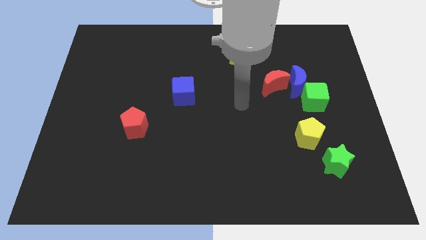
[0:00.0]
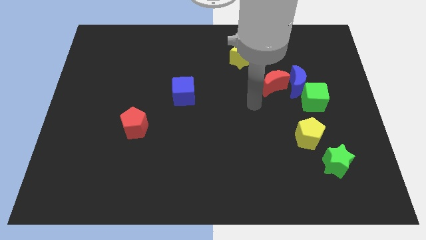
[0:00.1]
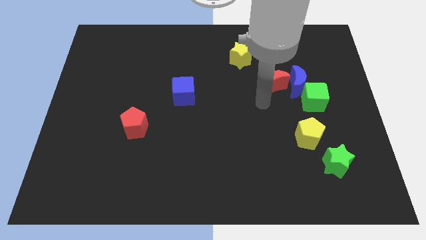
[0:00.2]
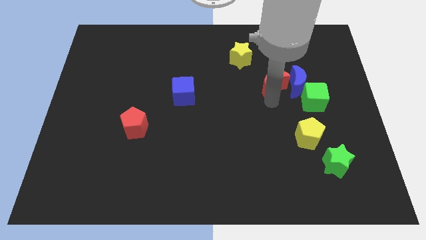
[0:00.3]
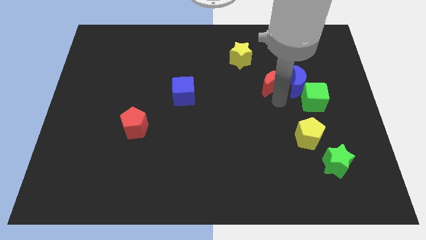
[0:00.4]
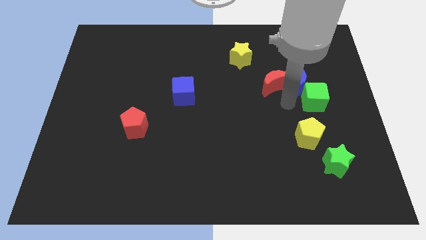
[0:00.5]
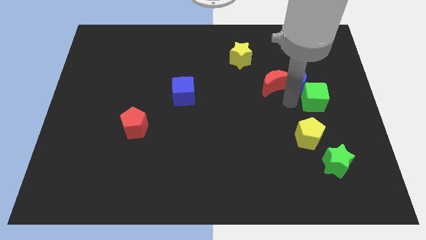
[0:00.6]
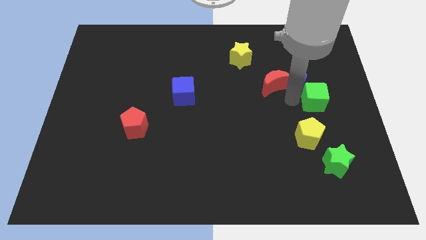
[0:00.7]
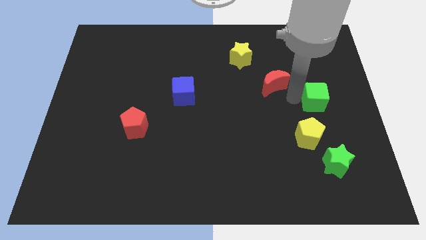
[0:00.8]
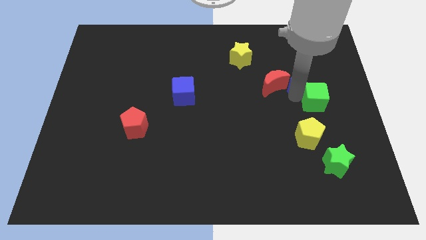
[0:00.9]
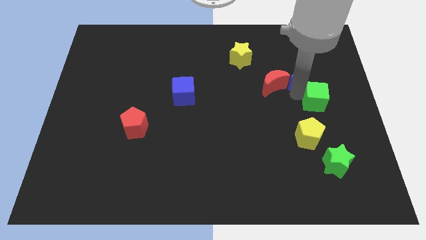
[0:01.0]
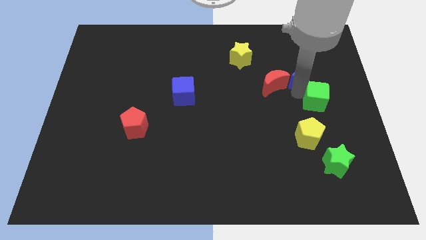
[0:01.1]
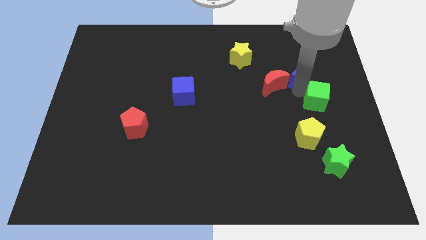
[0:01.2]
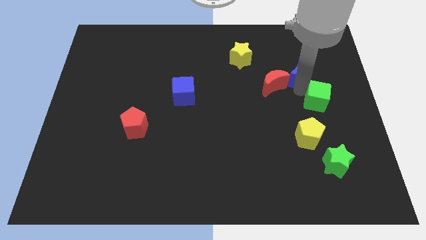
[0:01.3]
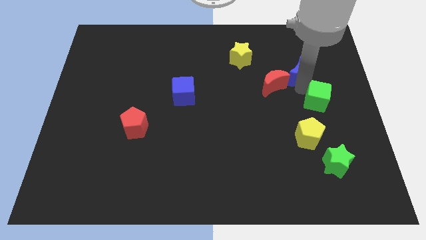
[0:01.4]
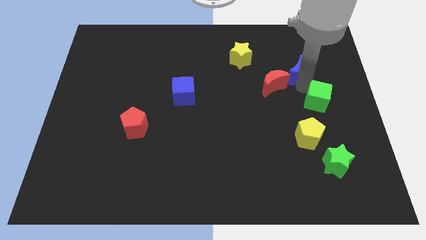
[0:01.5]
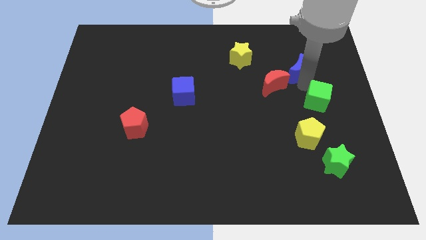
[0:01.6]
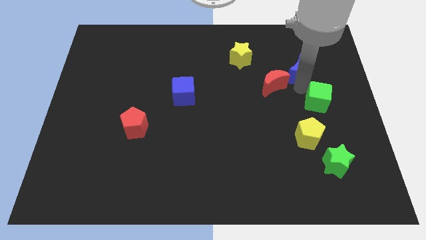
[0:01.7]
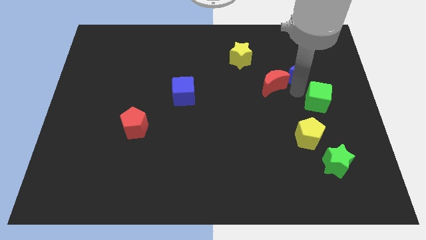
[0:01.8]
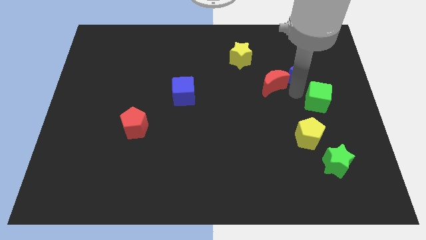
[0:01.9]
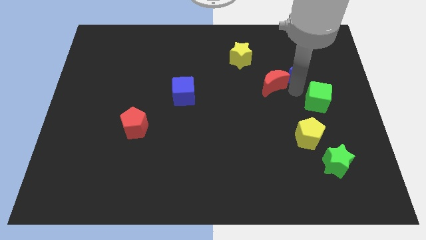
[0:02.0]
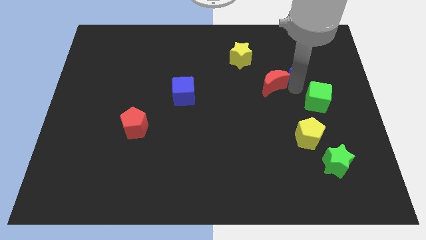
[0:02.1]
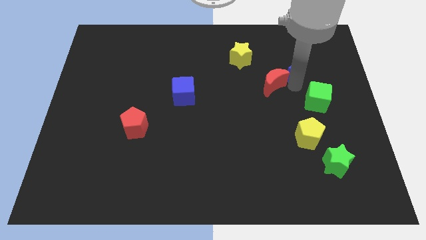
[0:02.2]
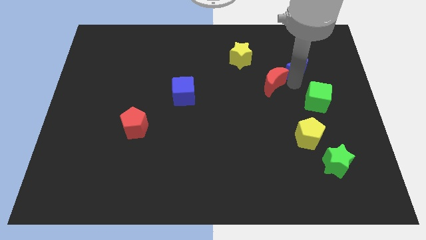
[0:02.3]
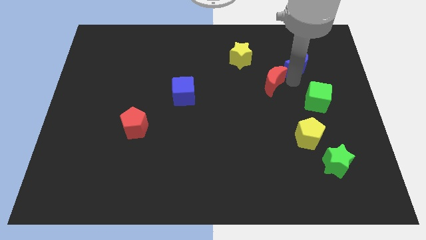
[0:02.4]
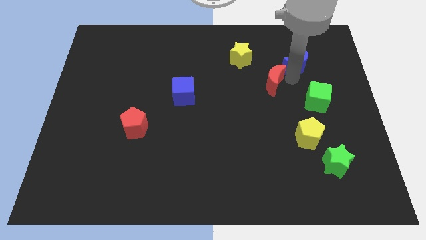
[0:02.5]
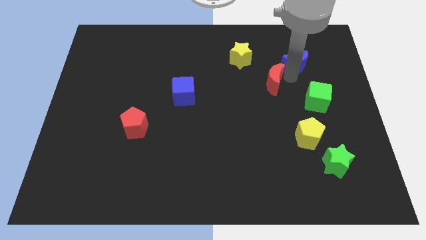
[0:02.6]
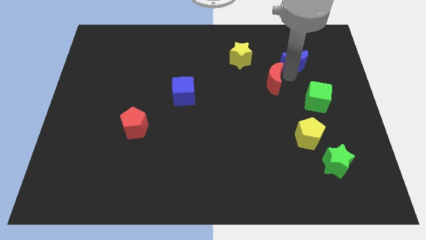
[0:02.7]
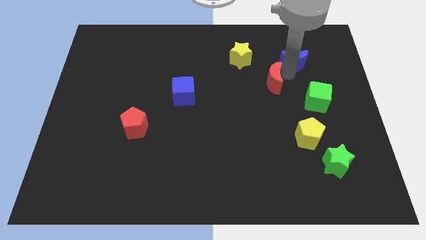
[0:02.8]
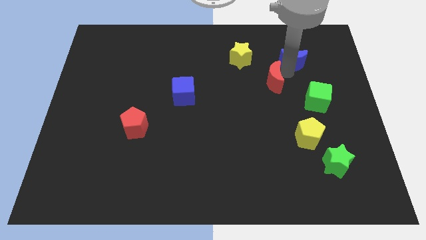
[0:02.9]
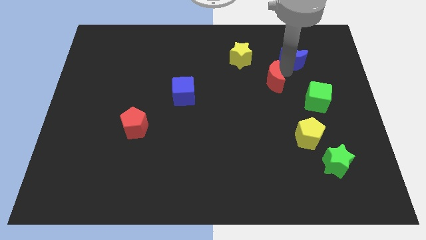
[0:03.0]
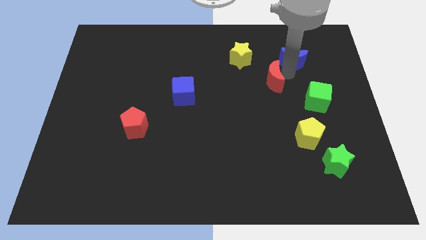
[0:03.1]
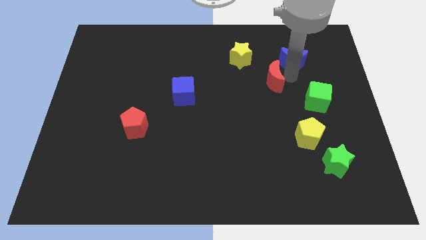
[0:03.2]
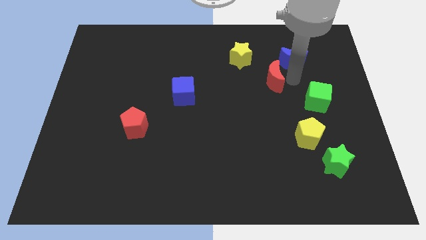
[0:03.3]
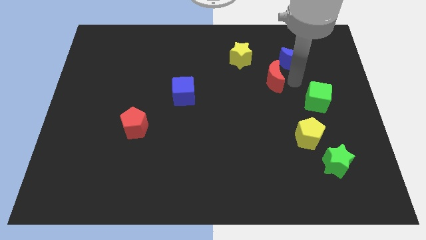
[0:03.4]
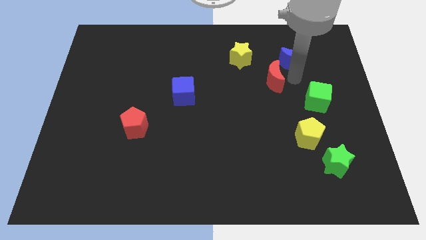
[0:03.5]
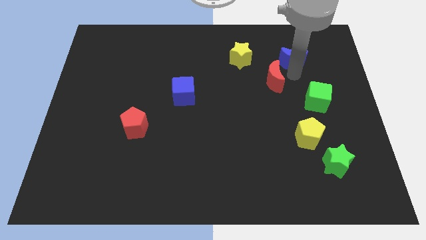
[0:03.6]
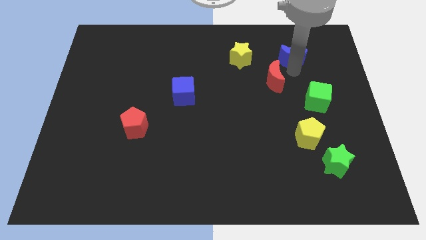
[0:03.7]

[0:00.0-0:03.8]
separate the blue moon from the green cube and red moon

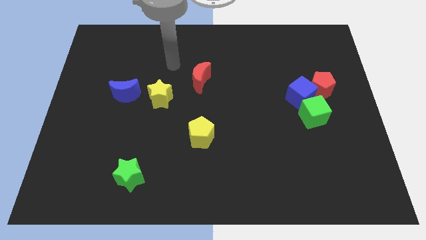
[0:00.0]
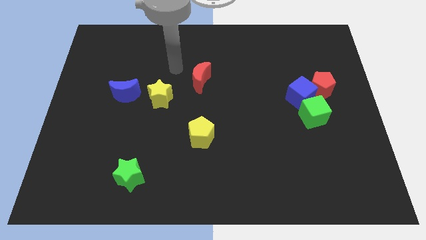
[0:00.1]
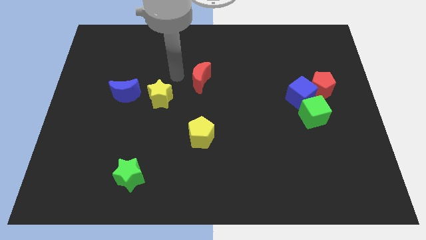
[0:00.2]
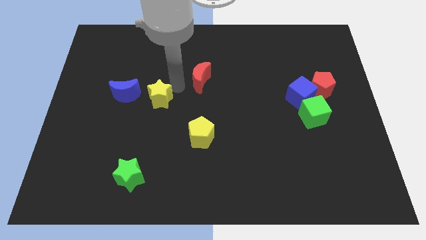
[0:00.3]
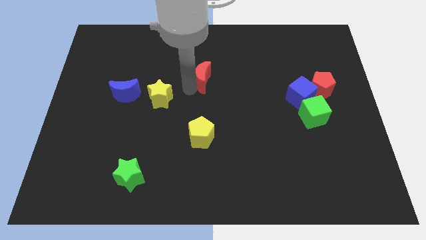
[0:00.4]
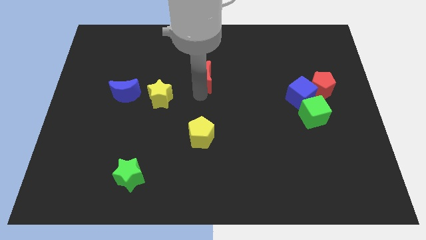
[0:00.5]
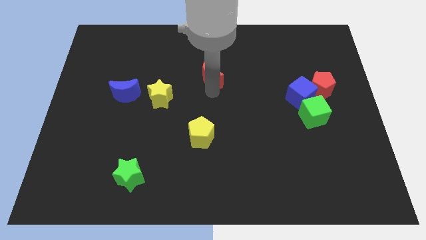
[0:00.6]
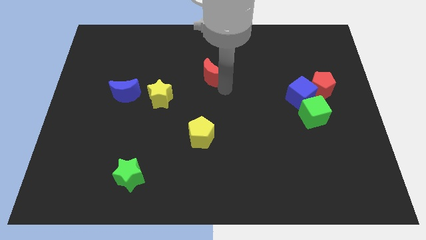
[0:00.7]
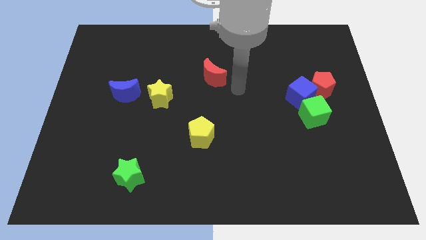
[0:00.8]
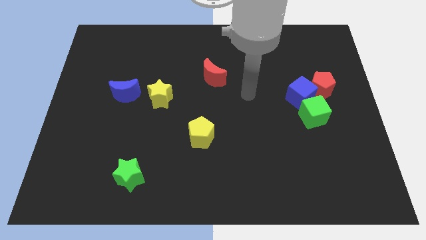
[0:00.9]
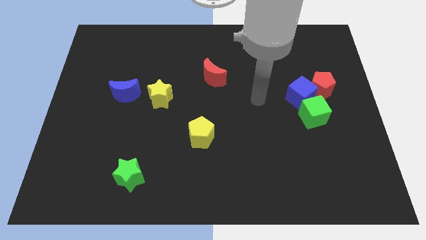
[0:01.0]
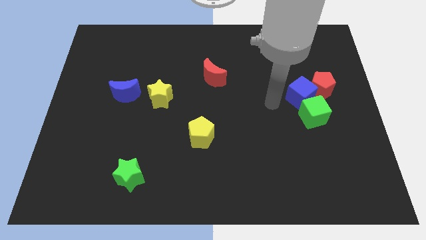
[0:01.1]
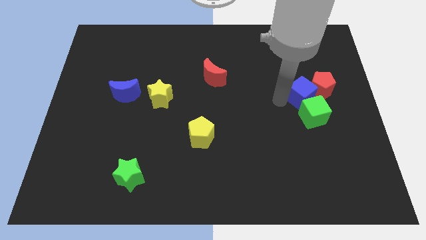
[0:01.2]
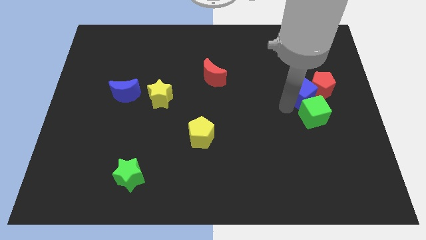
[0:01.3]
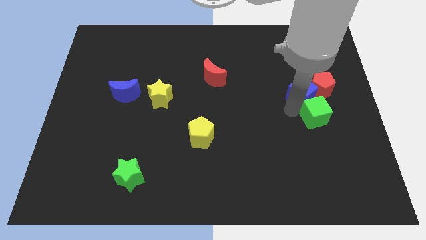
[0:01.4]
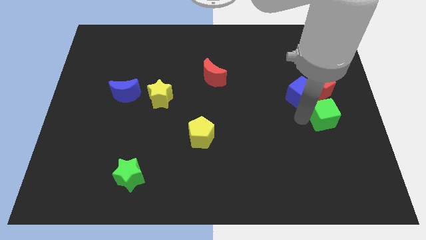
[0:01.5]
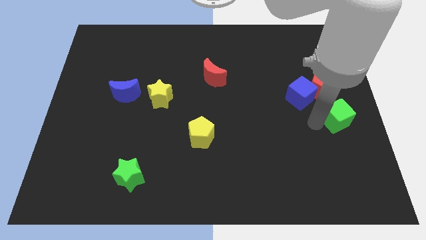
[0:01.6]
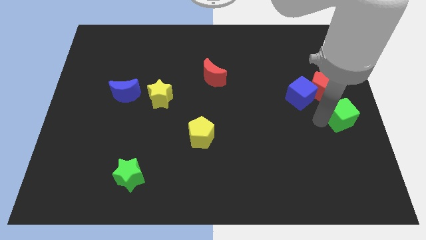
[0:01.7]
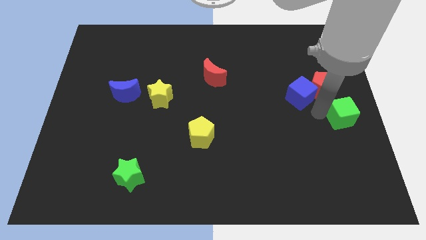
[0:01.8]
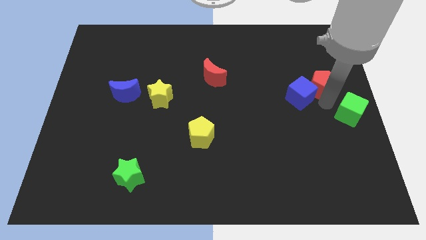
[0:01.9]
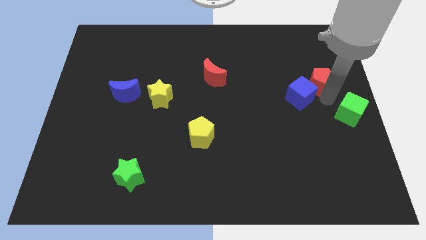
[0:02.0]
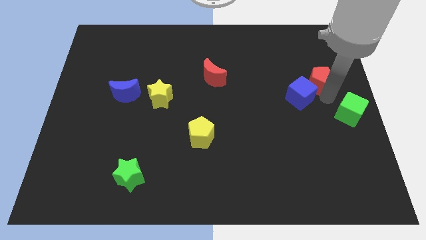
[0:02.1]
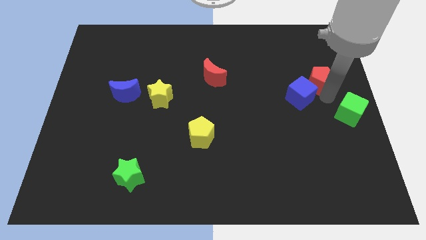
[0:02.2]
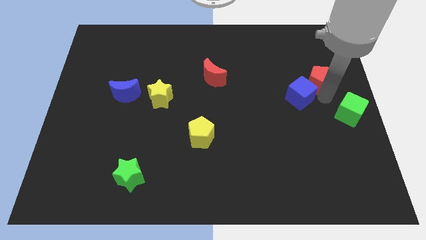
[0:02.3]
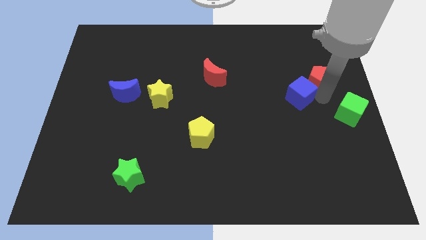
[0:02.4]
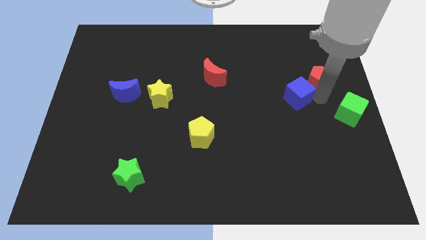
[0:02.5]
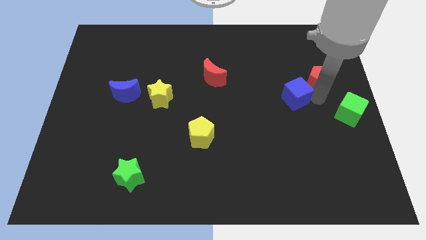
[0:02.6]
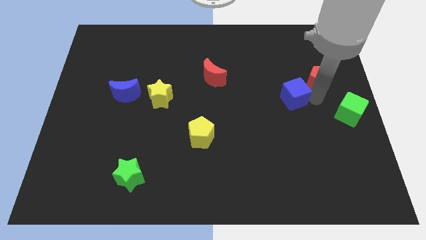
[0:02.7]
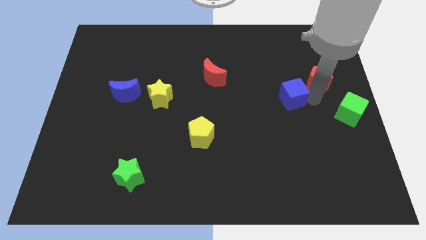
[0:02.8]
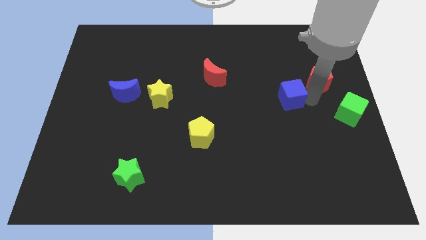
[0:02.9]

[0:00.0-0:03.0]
pull the blue cube apart from the red pentagon and green cube

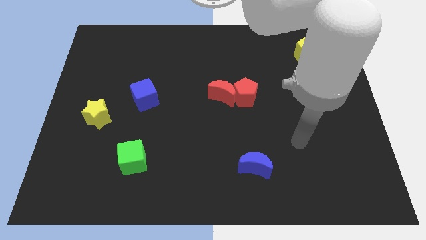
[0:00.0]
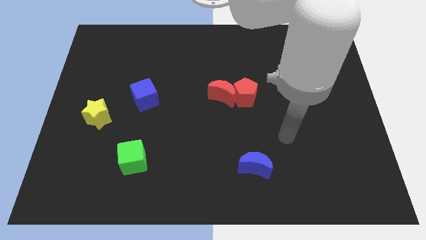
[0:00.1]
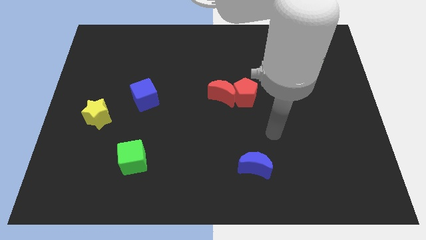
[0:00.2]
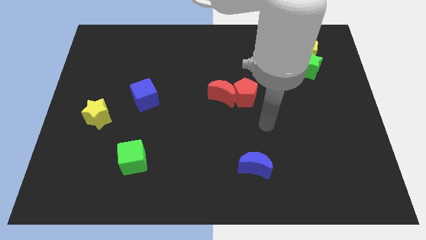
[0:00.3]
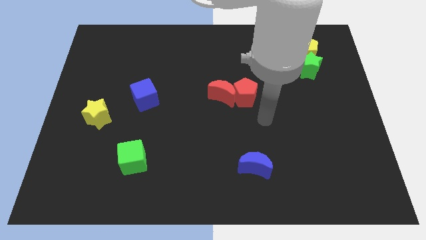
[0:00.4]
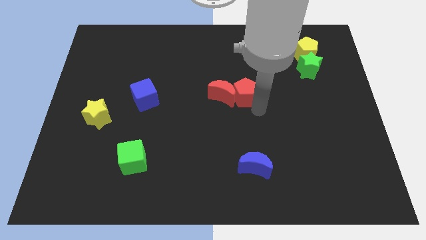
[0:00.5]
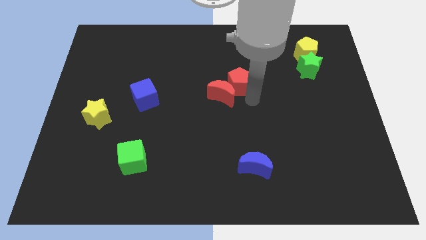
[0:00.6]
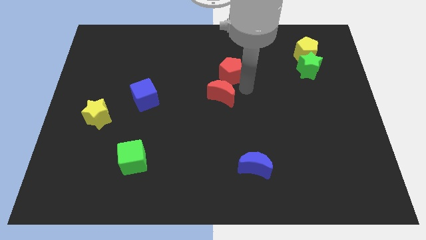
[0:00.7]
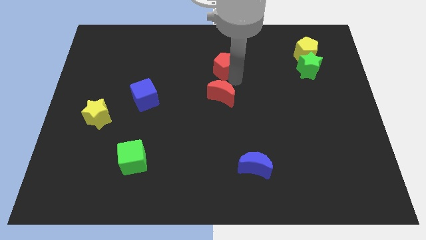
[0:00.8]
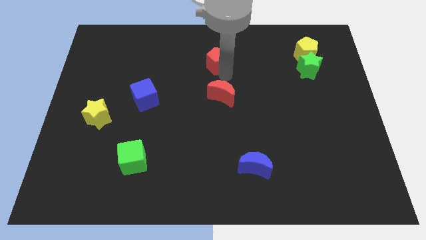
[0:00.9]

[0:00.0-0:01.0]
pull the red moon apart from the red pentagon

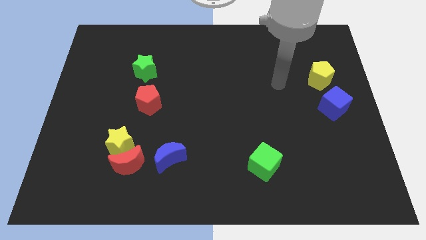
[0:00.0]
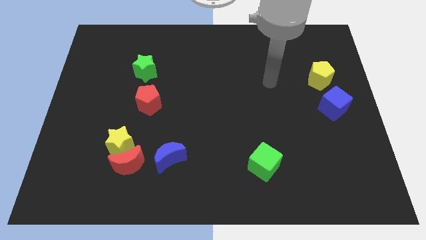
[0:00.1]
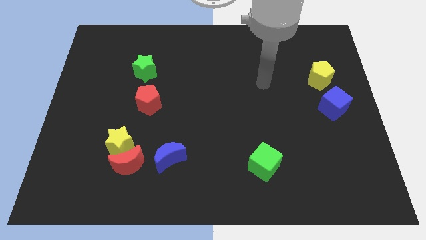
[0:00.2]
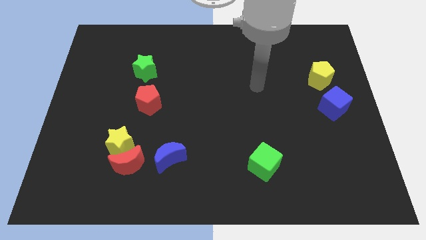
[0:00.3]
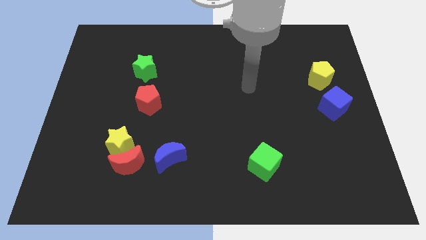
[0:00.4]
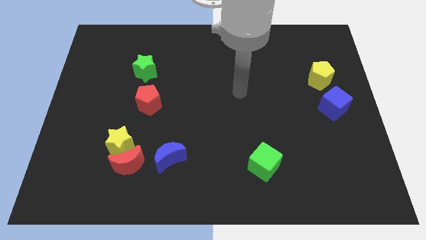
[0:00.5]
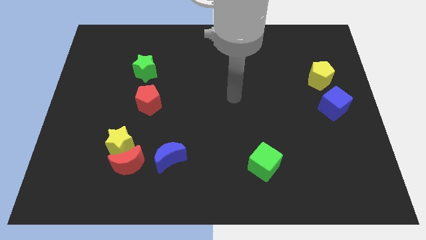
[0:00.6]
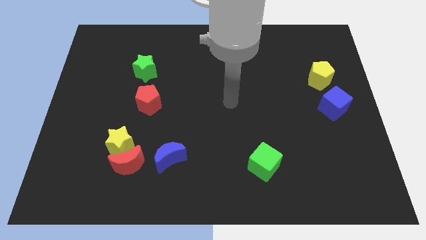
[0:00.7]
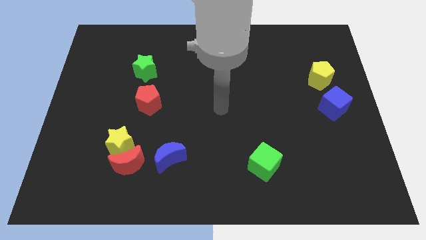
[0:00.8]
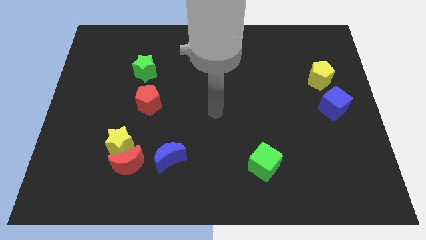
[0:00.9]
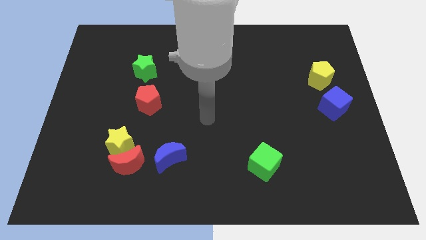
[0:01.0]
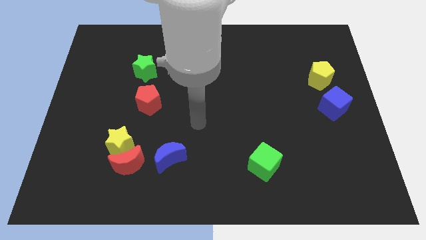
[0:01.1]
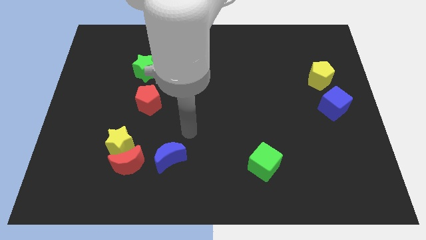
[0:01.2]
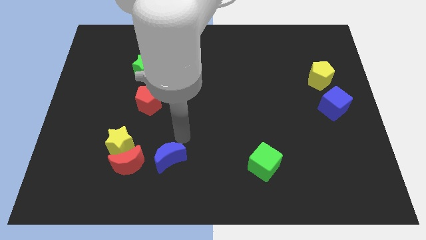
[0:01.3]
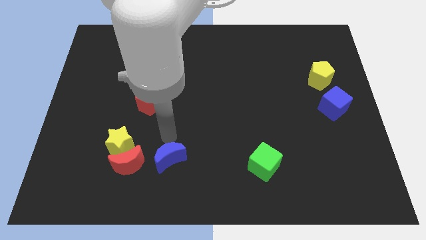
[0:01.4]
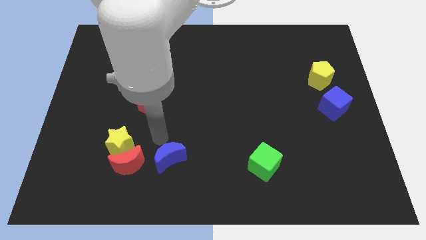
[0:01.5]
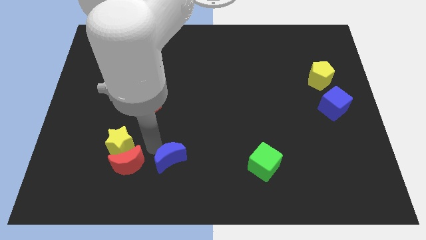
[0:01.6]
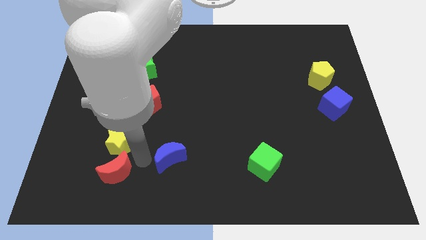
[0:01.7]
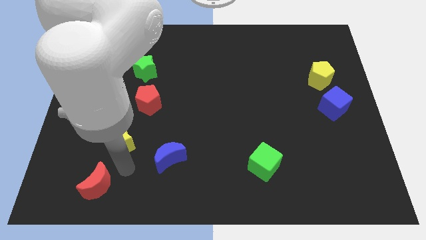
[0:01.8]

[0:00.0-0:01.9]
separate the yellow star from the red moon
